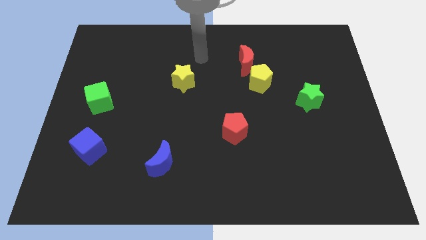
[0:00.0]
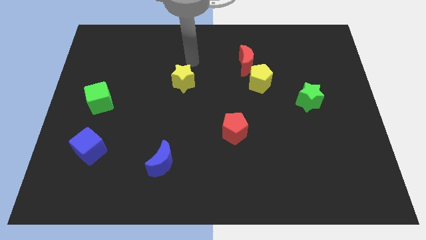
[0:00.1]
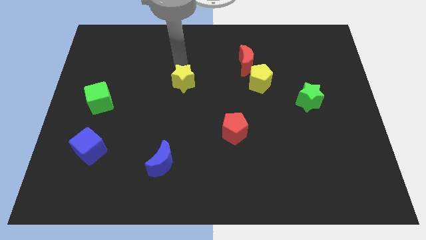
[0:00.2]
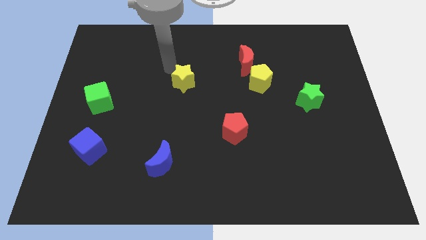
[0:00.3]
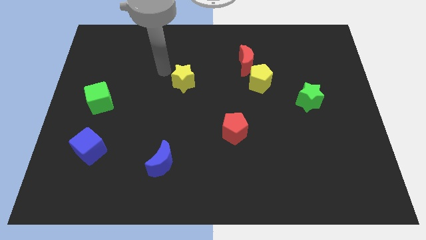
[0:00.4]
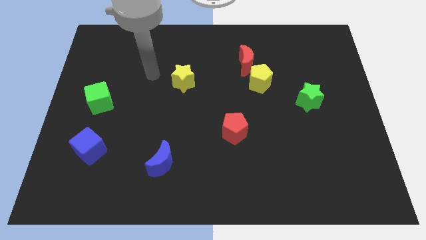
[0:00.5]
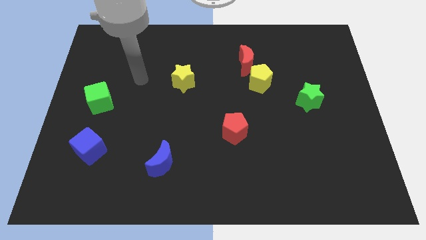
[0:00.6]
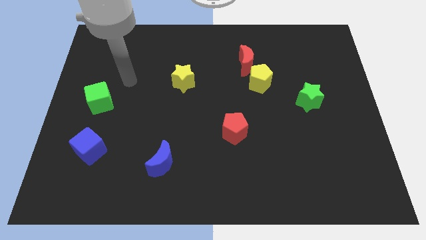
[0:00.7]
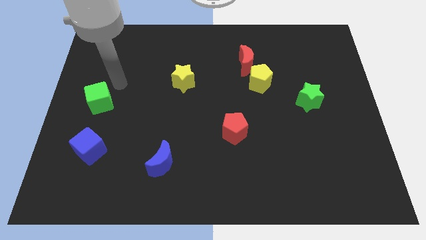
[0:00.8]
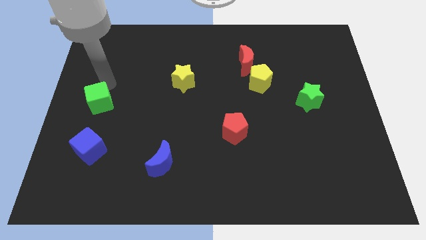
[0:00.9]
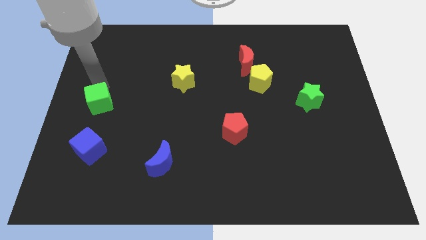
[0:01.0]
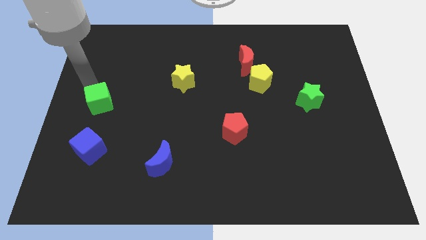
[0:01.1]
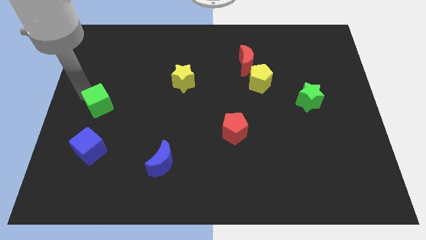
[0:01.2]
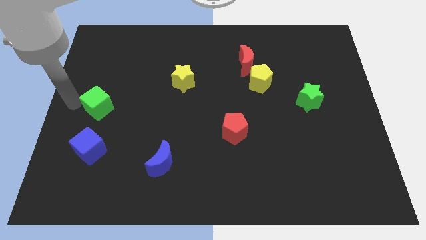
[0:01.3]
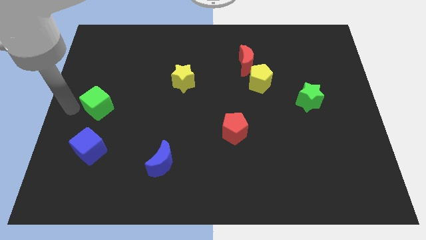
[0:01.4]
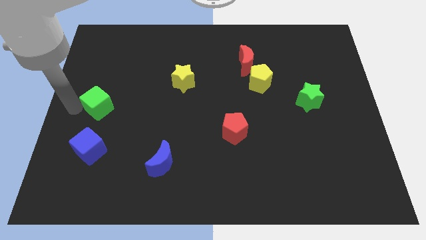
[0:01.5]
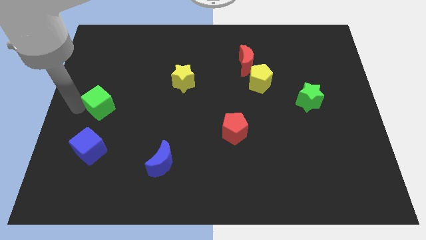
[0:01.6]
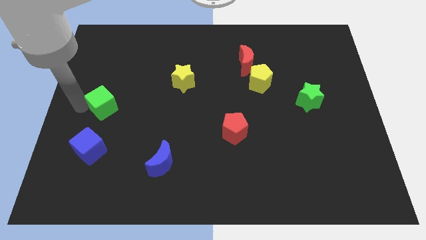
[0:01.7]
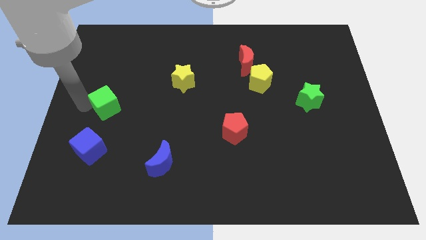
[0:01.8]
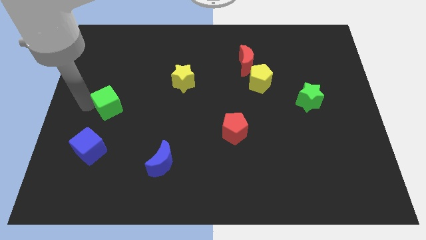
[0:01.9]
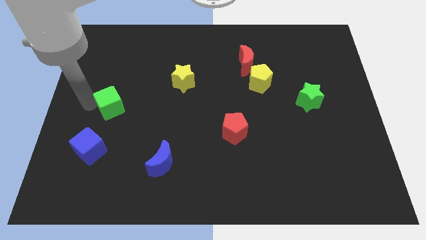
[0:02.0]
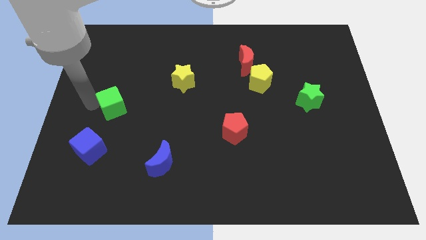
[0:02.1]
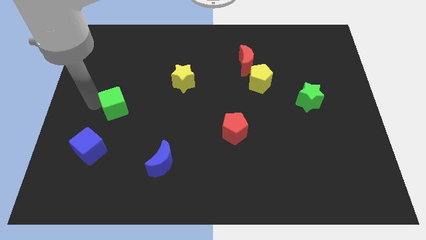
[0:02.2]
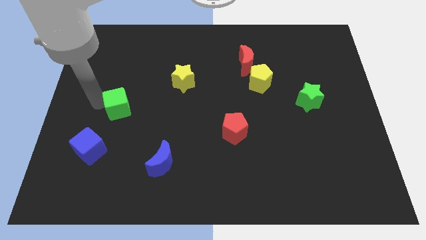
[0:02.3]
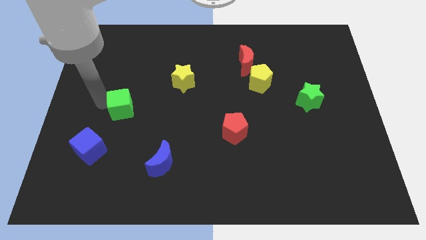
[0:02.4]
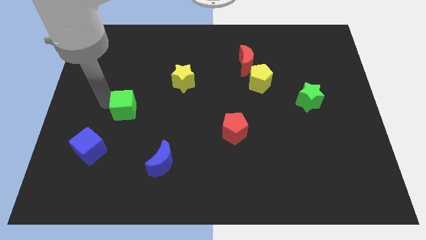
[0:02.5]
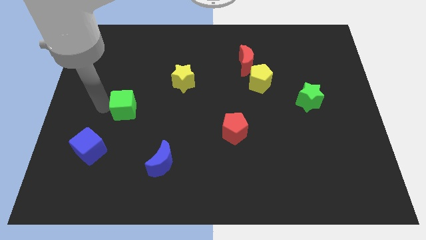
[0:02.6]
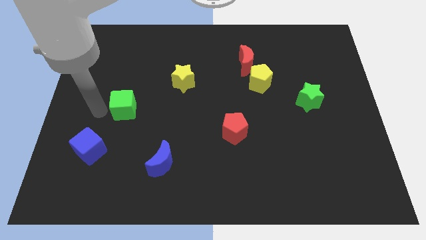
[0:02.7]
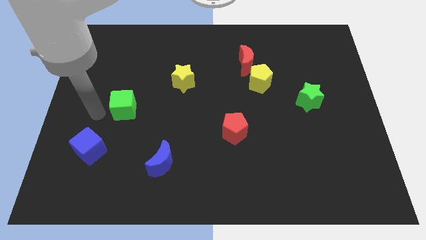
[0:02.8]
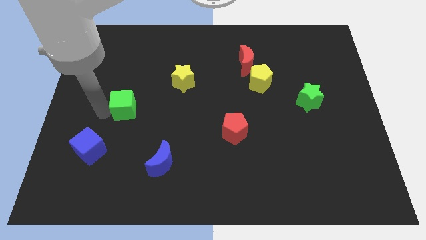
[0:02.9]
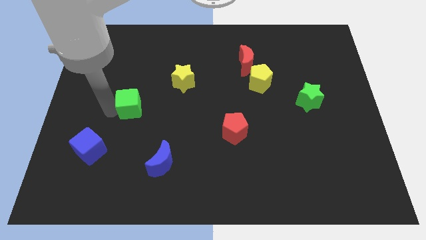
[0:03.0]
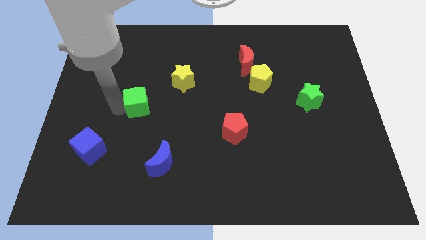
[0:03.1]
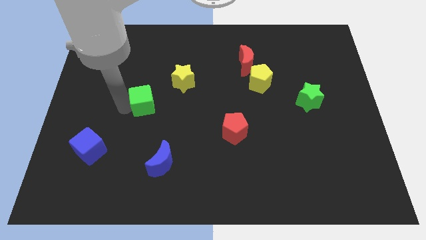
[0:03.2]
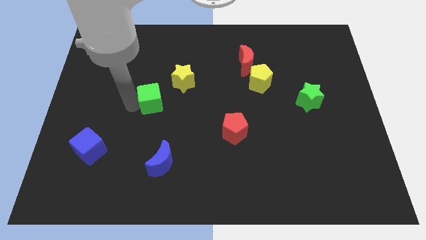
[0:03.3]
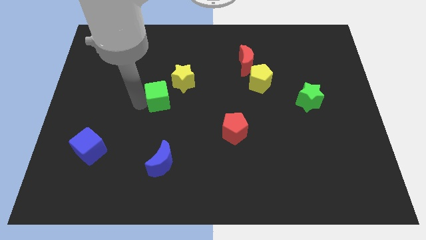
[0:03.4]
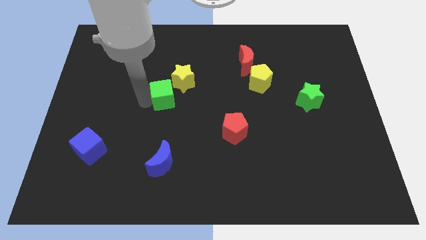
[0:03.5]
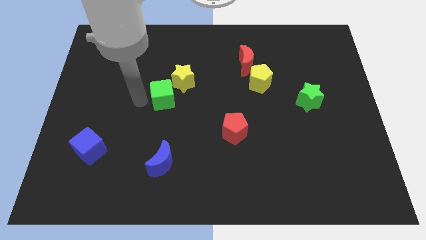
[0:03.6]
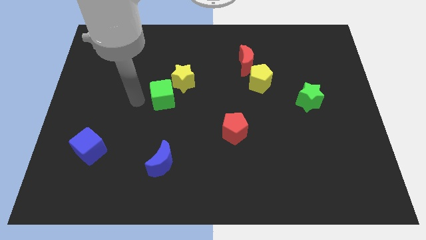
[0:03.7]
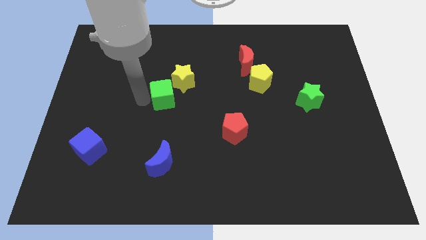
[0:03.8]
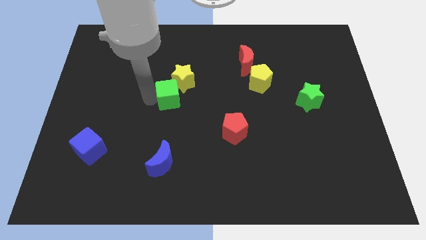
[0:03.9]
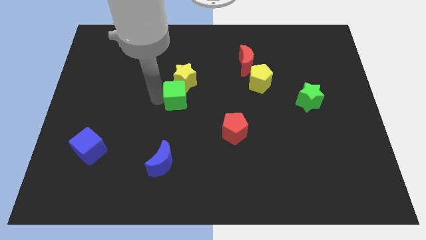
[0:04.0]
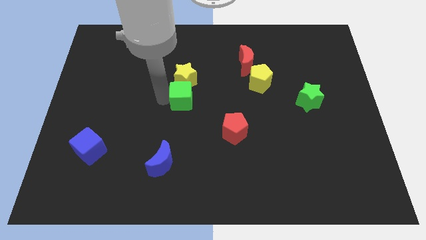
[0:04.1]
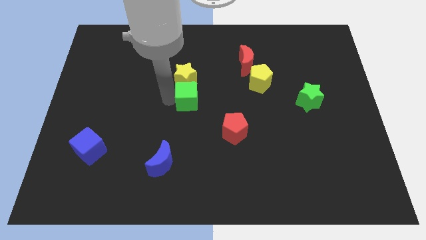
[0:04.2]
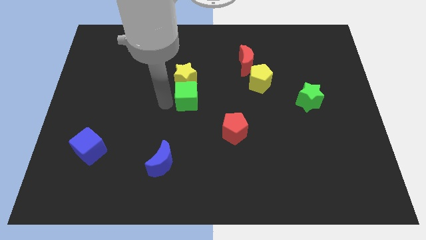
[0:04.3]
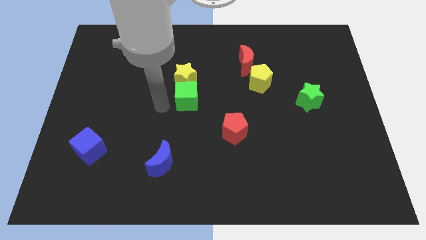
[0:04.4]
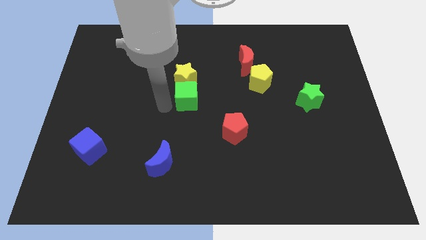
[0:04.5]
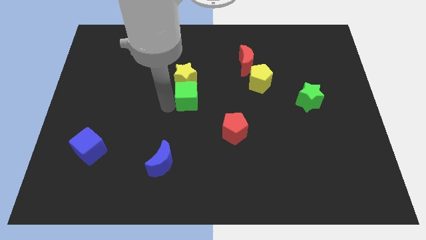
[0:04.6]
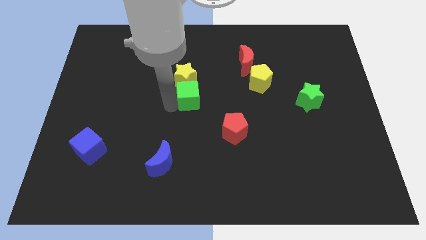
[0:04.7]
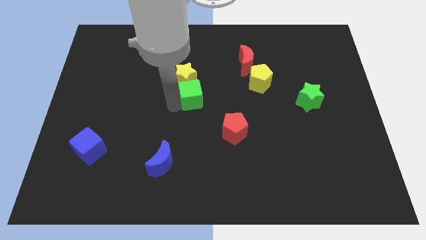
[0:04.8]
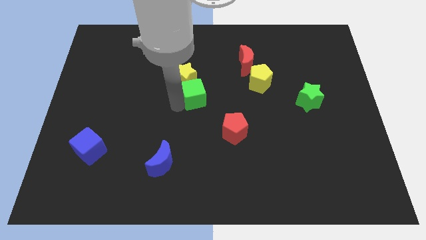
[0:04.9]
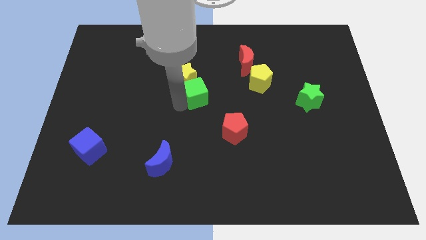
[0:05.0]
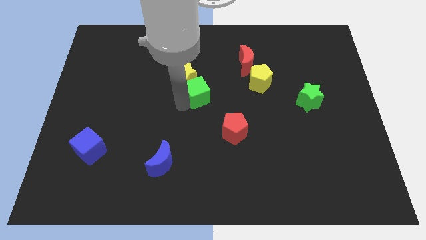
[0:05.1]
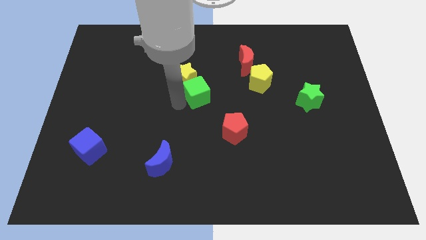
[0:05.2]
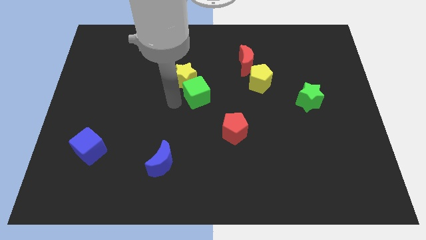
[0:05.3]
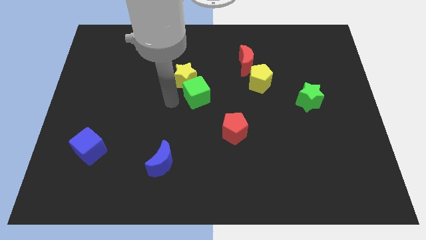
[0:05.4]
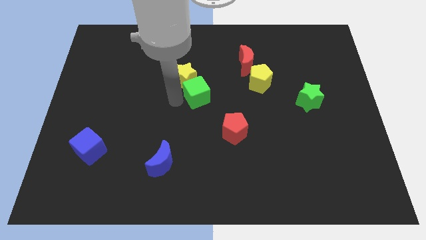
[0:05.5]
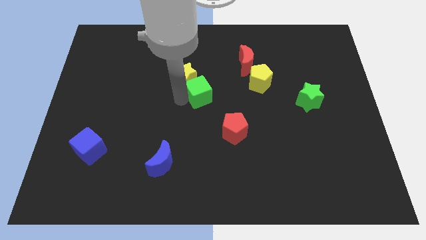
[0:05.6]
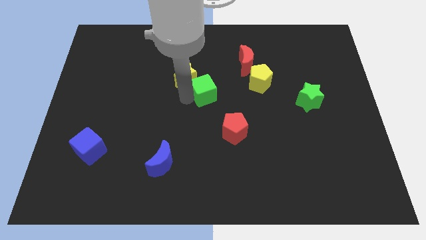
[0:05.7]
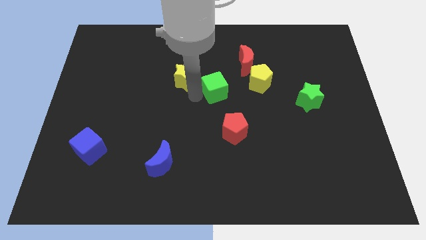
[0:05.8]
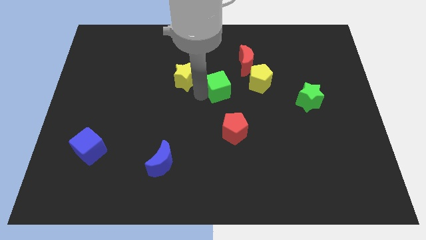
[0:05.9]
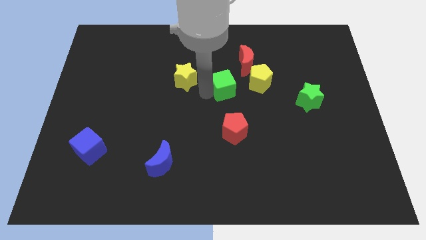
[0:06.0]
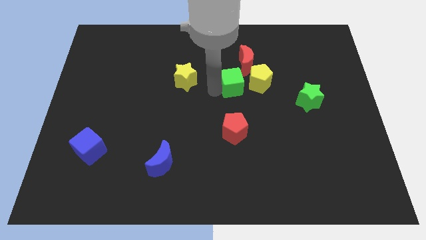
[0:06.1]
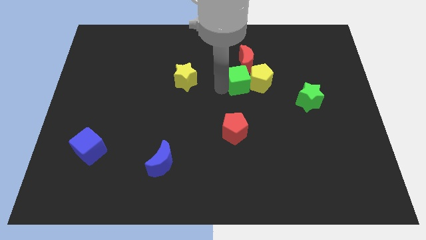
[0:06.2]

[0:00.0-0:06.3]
slide the green cube close to the yellow pentagon

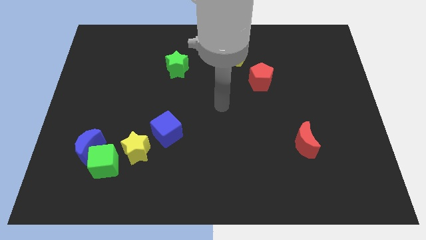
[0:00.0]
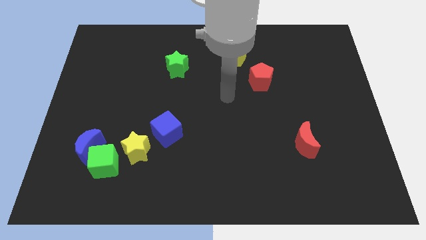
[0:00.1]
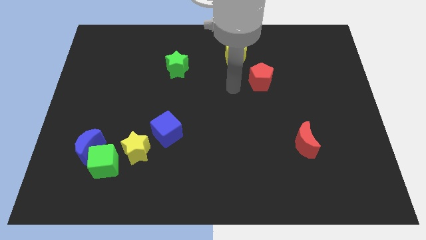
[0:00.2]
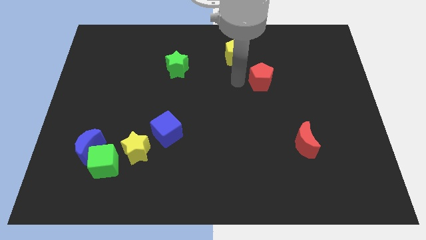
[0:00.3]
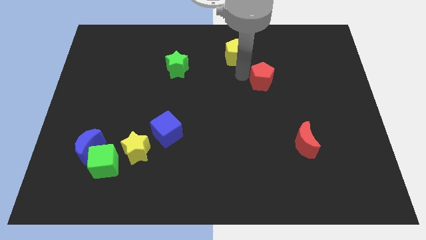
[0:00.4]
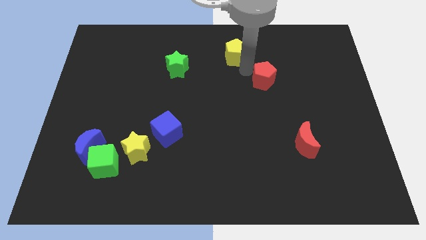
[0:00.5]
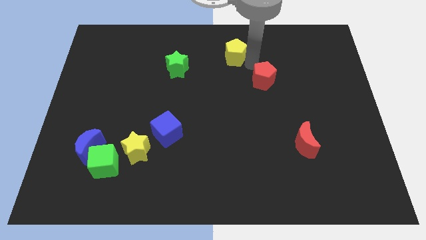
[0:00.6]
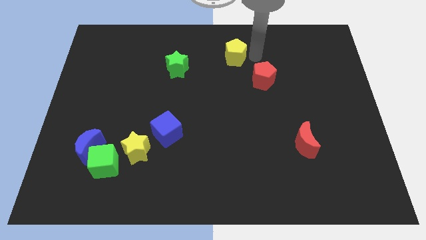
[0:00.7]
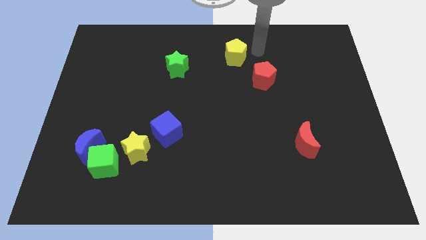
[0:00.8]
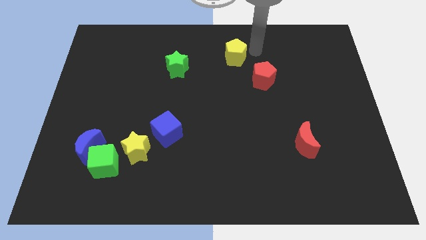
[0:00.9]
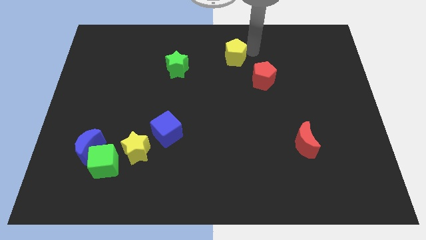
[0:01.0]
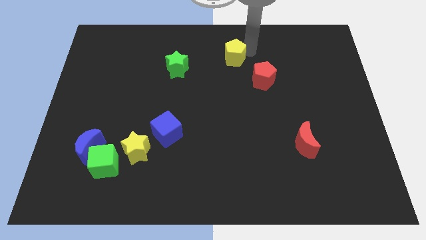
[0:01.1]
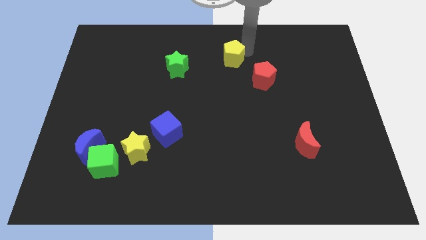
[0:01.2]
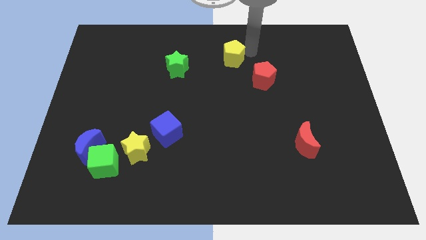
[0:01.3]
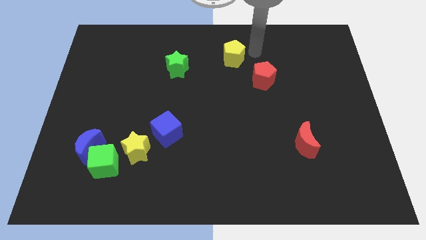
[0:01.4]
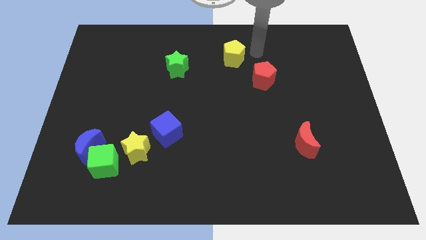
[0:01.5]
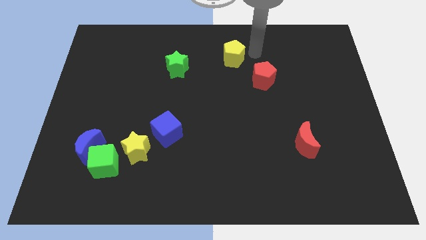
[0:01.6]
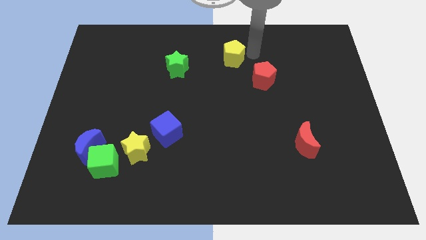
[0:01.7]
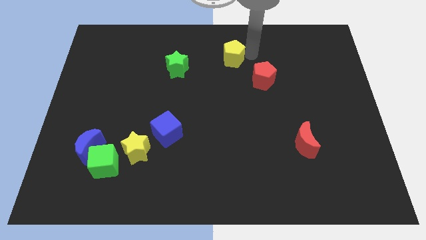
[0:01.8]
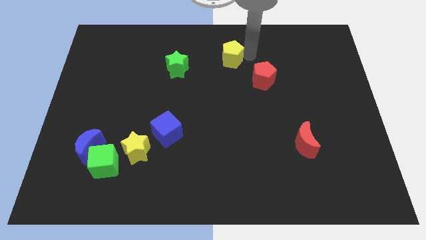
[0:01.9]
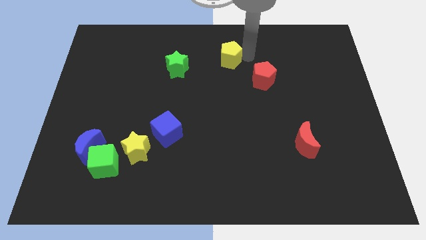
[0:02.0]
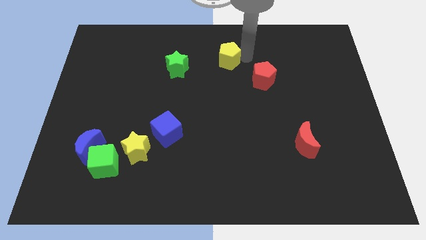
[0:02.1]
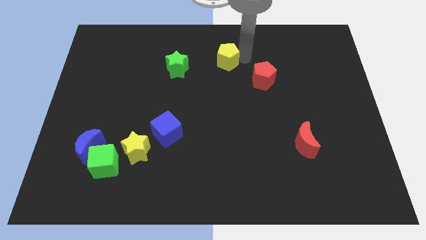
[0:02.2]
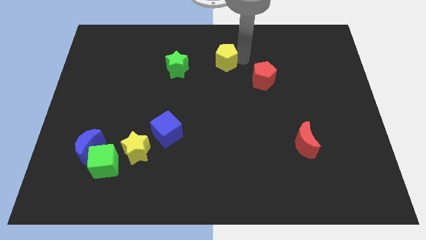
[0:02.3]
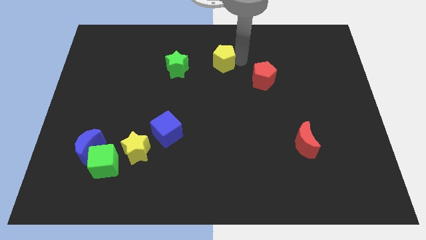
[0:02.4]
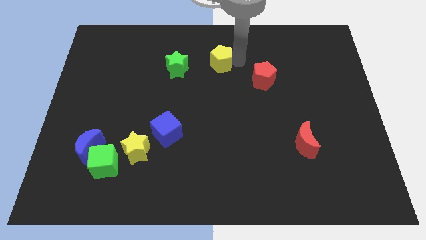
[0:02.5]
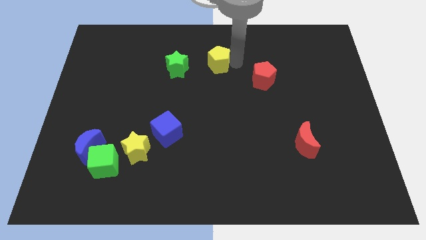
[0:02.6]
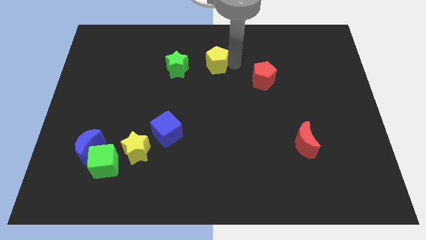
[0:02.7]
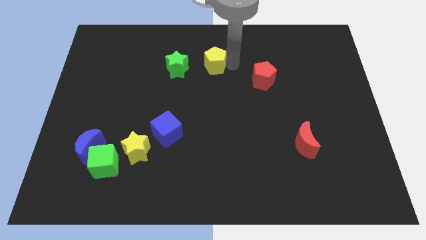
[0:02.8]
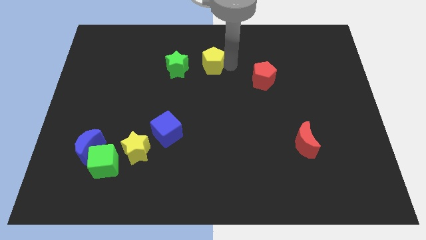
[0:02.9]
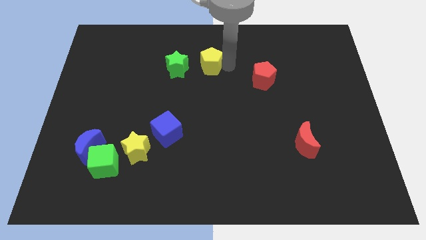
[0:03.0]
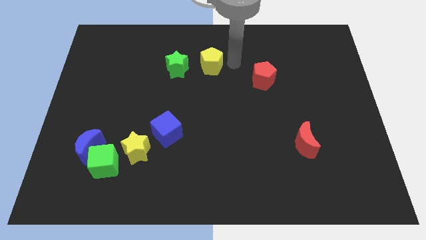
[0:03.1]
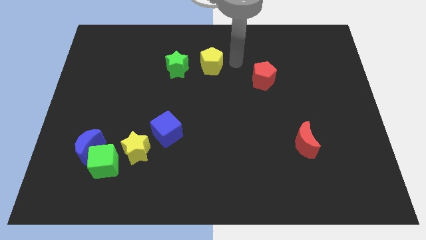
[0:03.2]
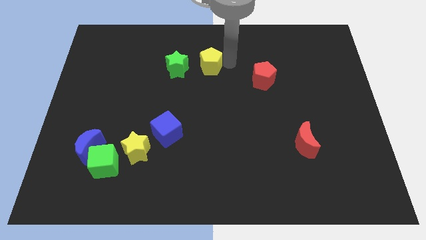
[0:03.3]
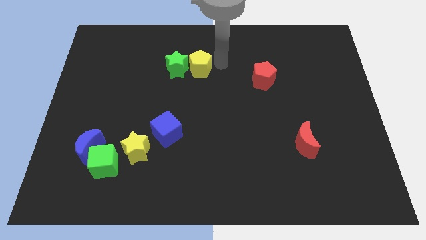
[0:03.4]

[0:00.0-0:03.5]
push the yellow pentagon towards the green star
